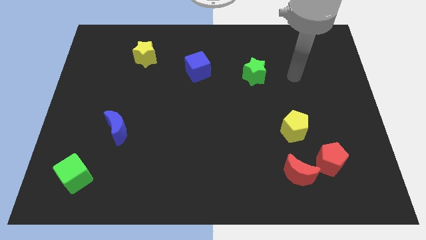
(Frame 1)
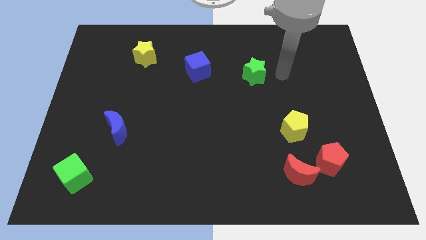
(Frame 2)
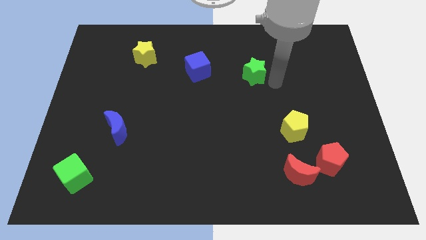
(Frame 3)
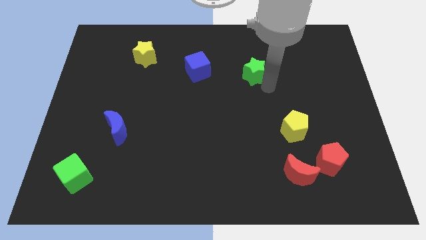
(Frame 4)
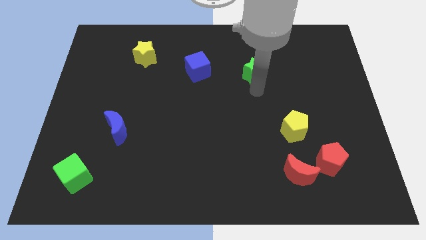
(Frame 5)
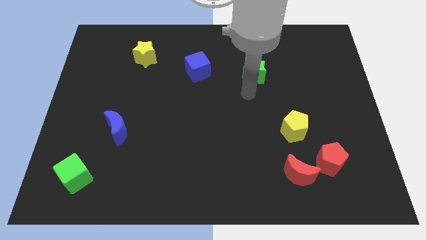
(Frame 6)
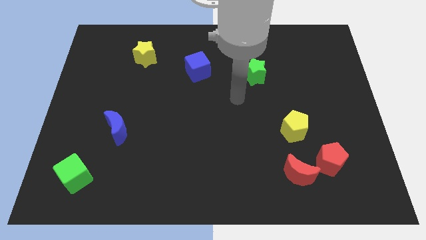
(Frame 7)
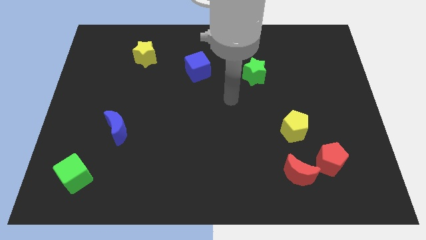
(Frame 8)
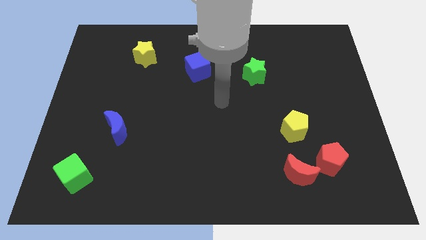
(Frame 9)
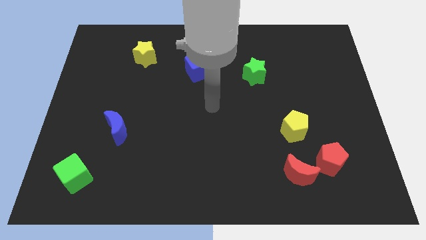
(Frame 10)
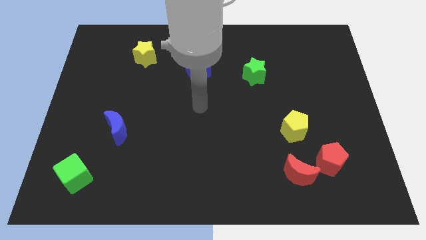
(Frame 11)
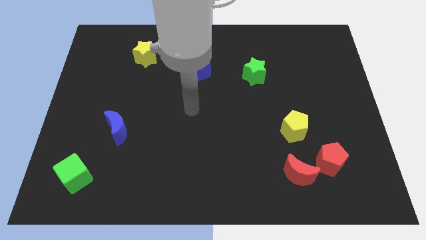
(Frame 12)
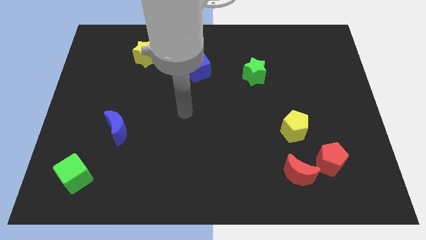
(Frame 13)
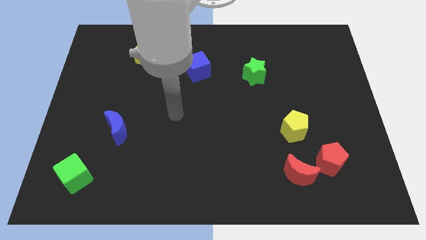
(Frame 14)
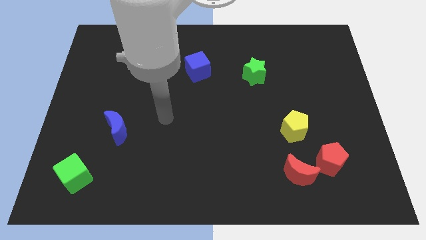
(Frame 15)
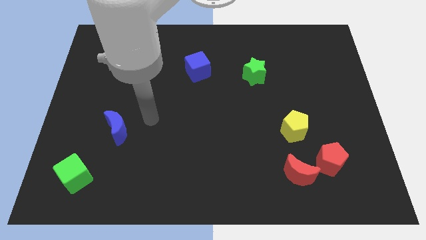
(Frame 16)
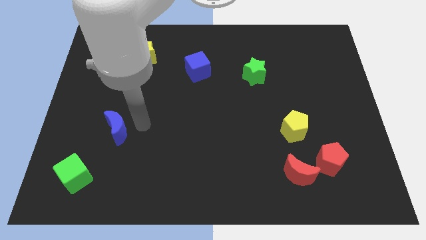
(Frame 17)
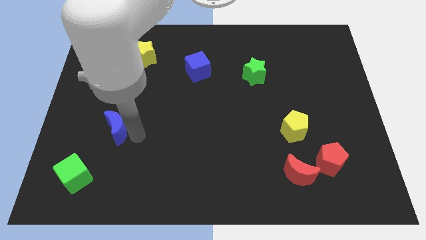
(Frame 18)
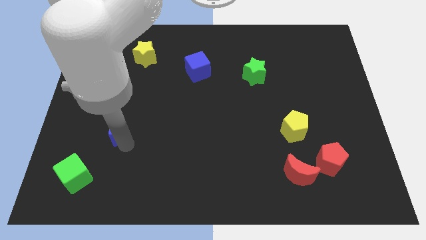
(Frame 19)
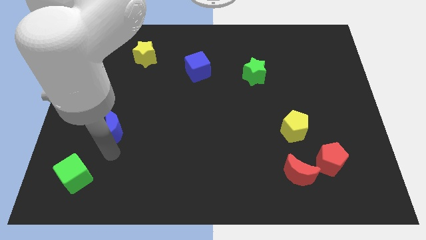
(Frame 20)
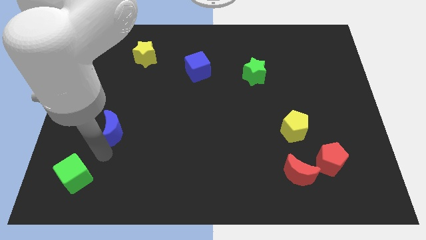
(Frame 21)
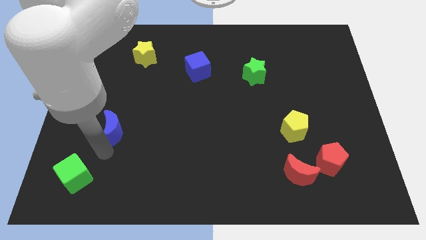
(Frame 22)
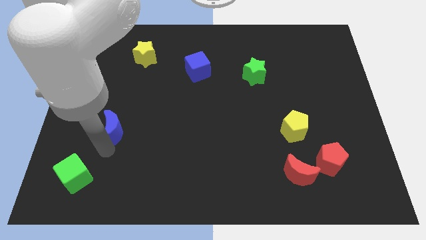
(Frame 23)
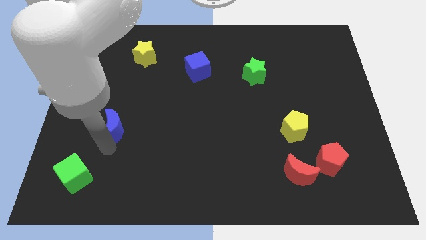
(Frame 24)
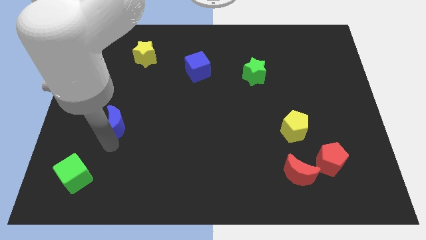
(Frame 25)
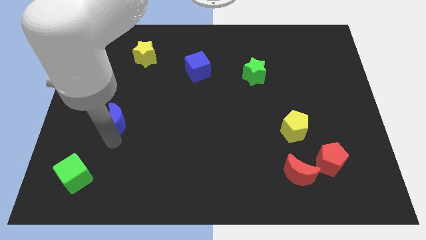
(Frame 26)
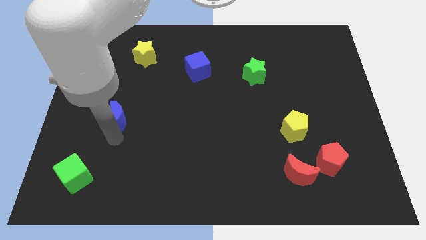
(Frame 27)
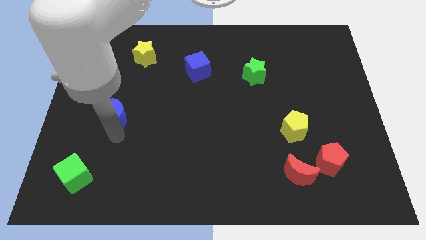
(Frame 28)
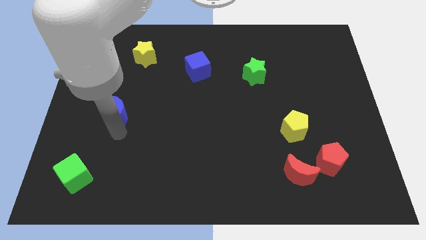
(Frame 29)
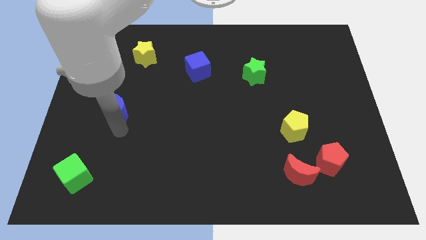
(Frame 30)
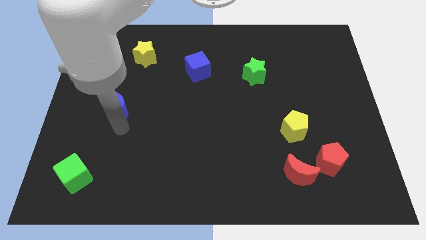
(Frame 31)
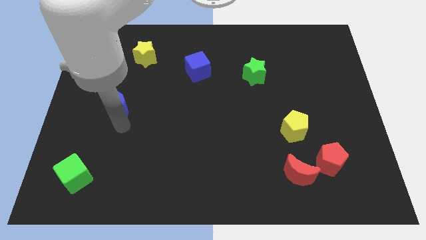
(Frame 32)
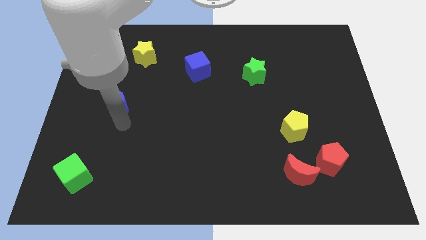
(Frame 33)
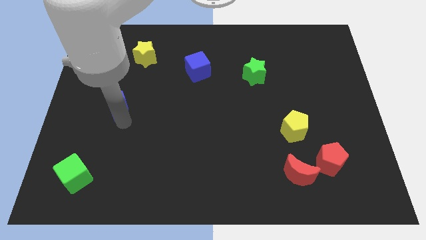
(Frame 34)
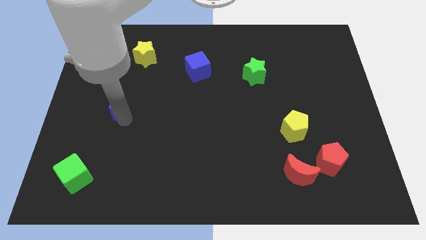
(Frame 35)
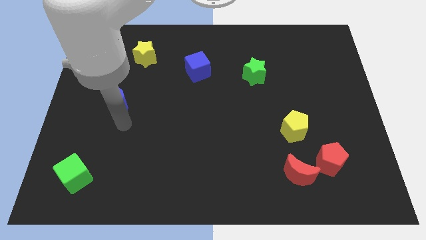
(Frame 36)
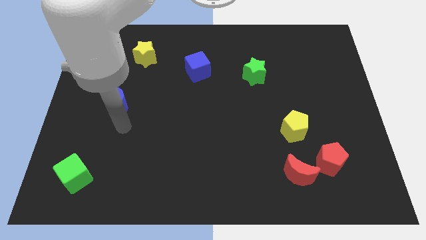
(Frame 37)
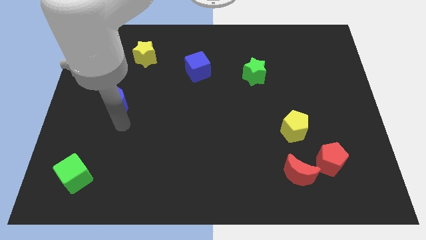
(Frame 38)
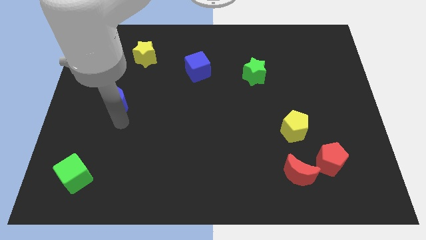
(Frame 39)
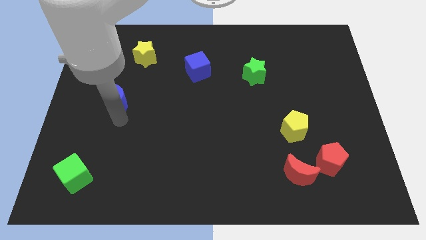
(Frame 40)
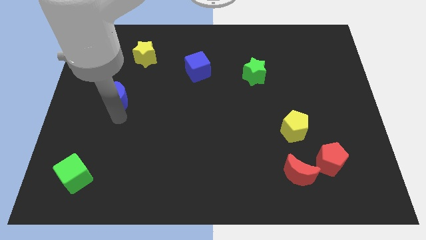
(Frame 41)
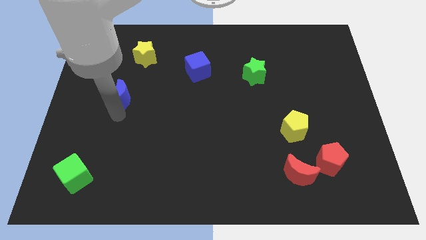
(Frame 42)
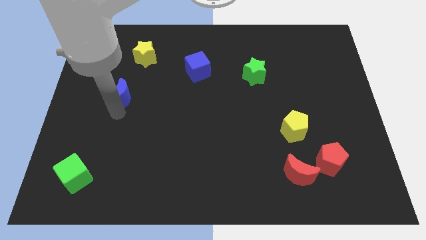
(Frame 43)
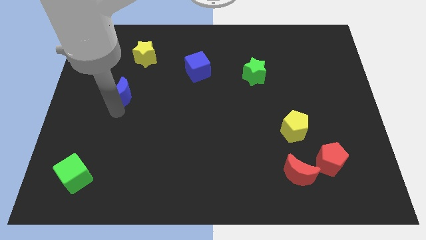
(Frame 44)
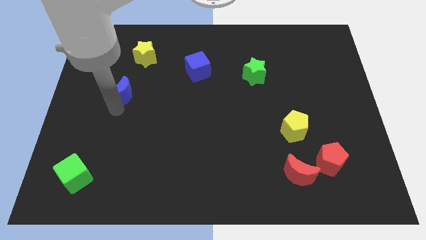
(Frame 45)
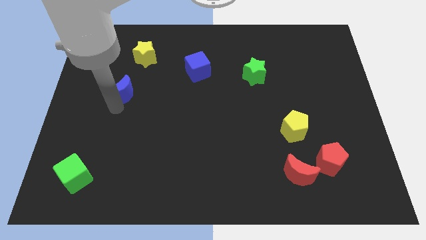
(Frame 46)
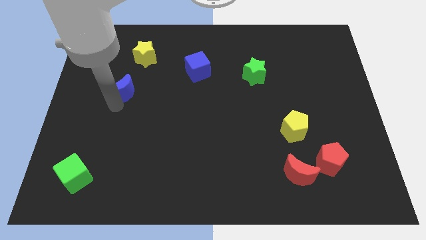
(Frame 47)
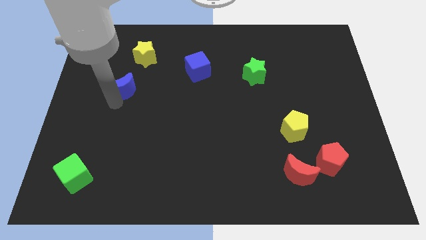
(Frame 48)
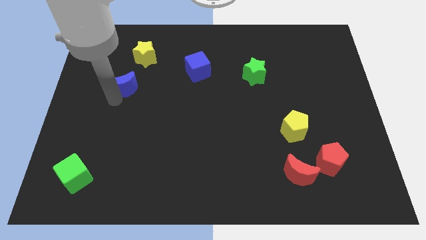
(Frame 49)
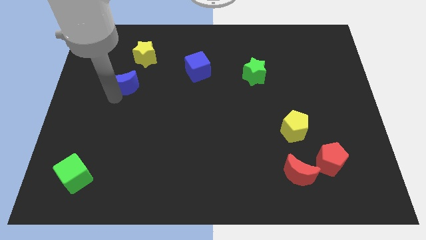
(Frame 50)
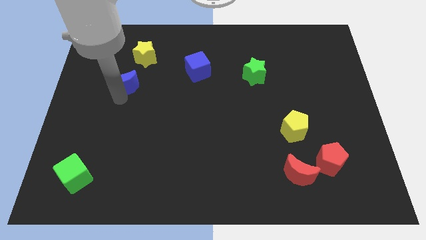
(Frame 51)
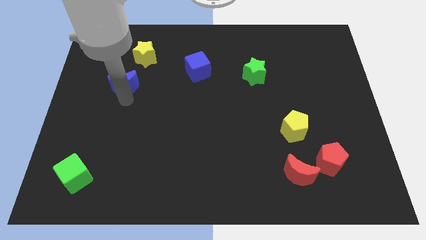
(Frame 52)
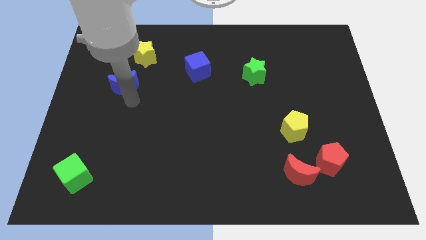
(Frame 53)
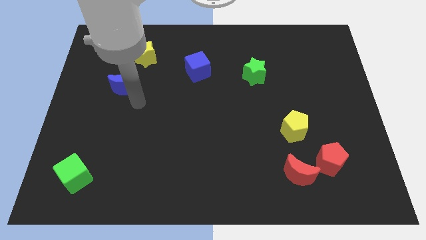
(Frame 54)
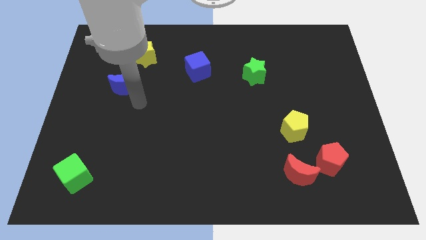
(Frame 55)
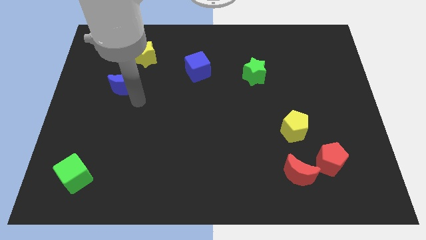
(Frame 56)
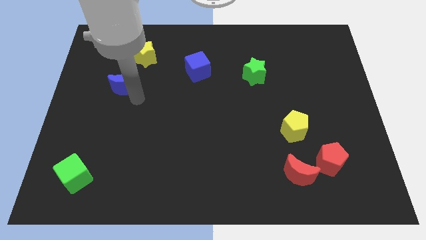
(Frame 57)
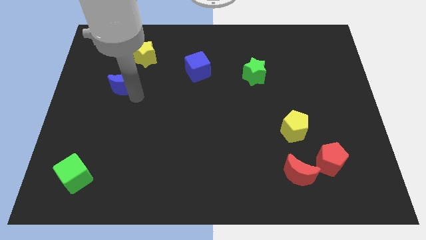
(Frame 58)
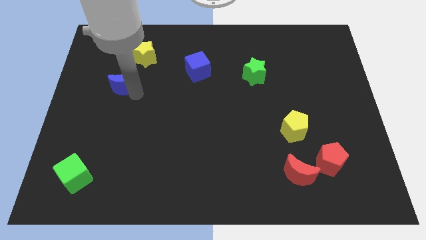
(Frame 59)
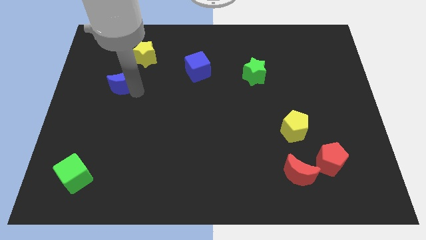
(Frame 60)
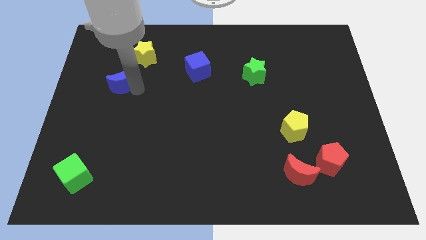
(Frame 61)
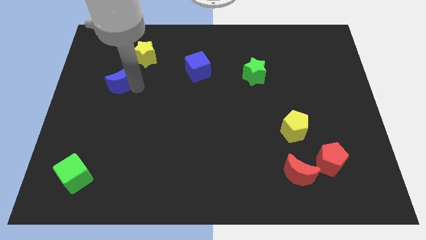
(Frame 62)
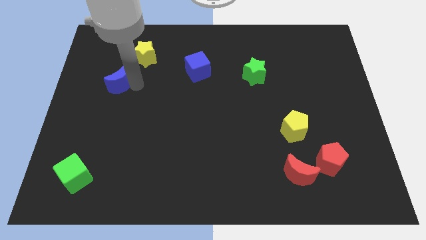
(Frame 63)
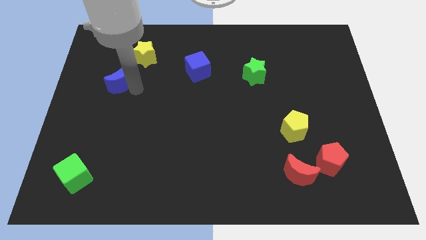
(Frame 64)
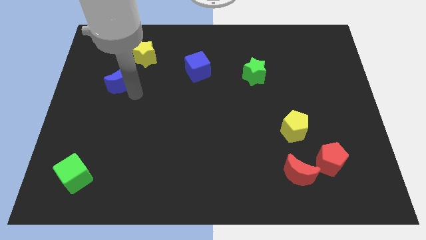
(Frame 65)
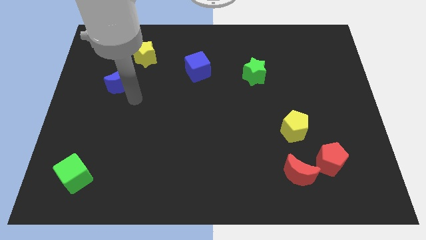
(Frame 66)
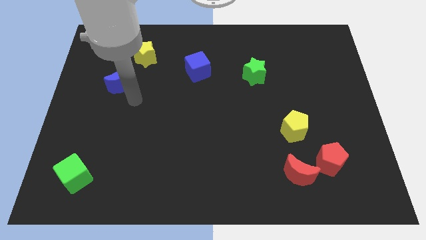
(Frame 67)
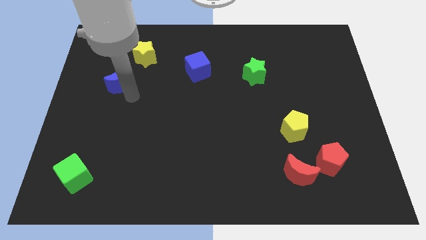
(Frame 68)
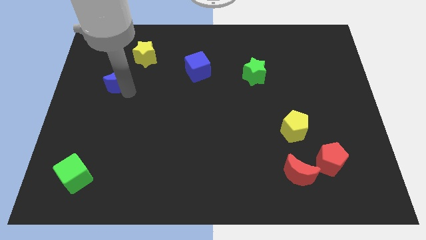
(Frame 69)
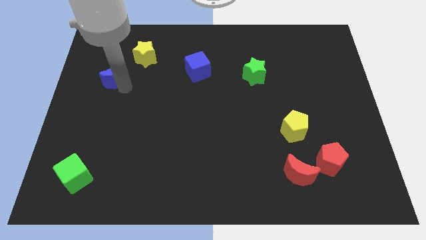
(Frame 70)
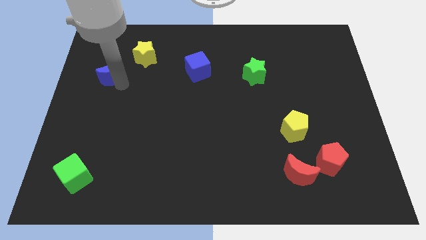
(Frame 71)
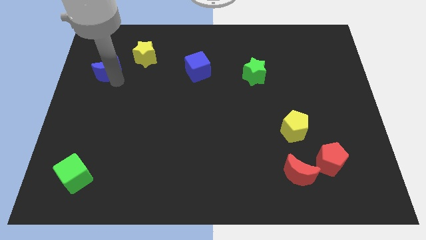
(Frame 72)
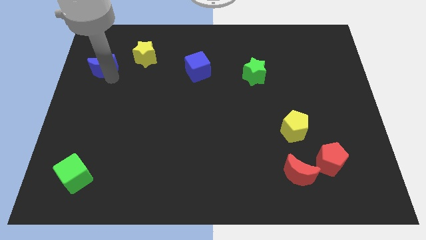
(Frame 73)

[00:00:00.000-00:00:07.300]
slide the blue moon left of the yellow star
